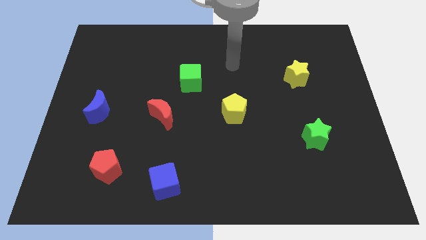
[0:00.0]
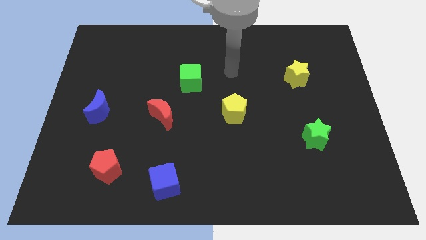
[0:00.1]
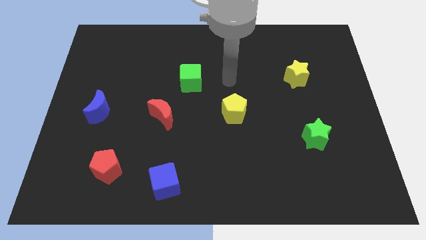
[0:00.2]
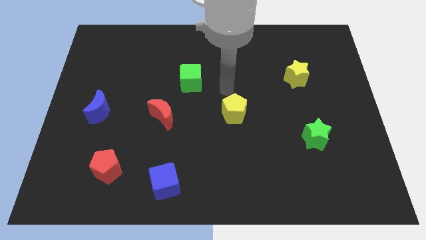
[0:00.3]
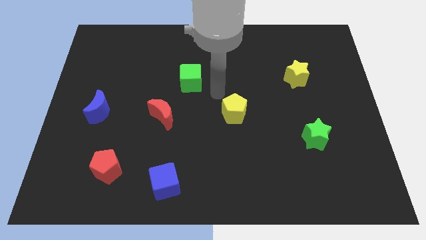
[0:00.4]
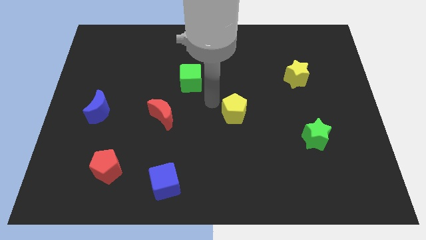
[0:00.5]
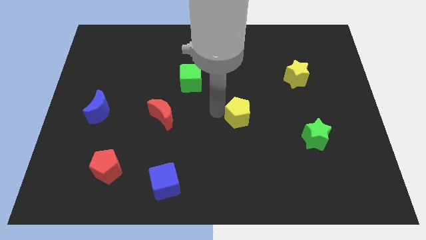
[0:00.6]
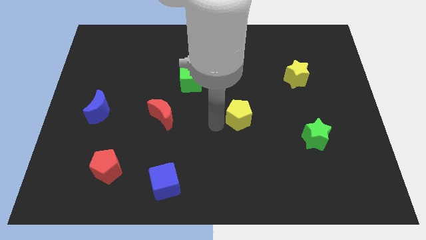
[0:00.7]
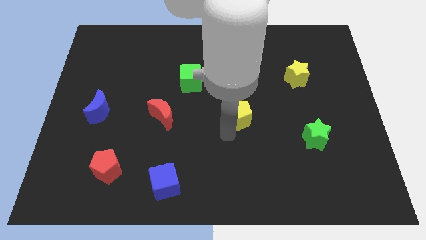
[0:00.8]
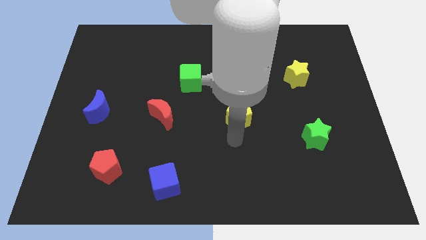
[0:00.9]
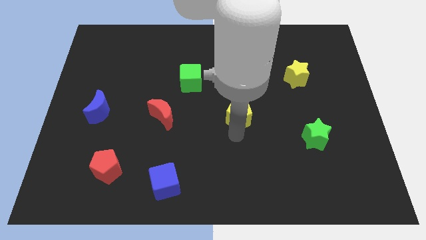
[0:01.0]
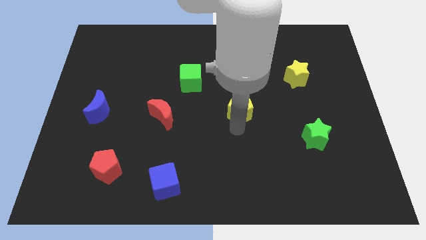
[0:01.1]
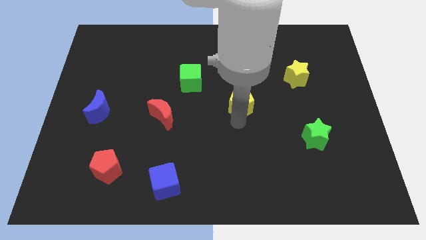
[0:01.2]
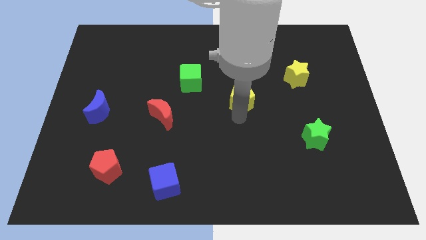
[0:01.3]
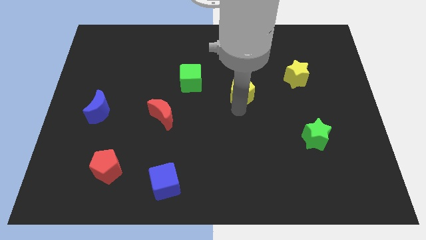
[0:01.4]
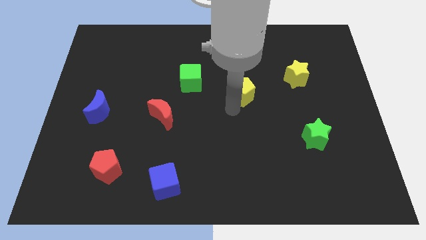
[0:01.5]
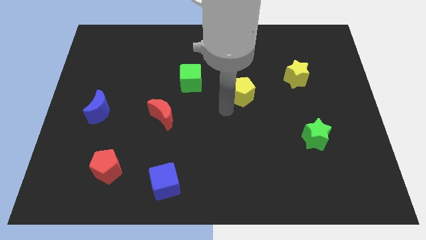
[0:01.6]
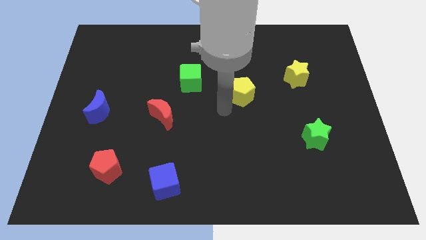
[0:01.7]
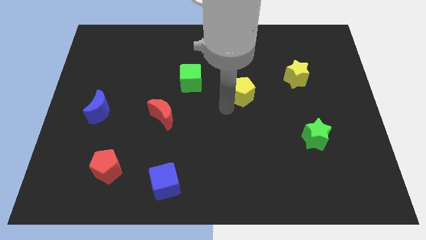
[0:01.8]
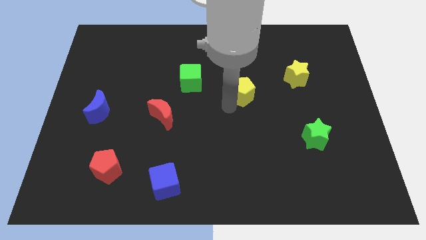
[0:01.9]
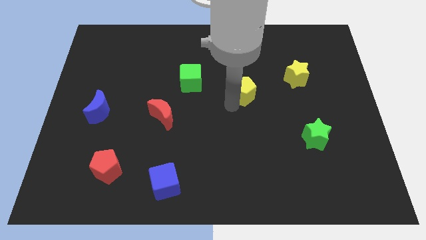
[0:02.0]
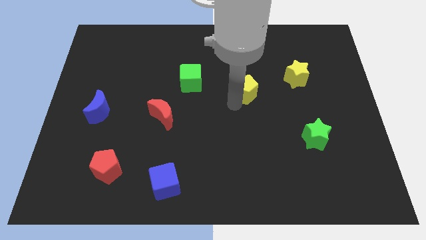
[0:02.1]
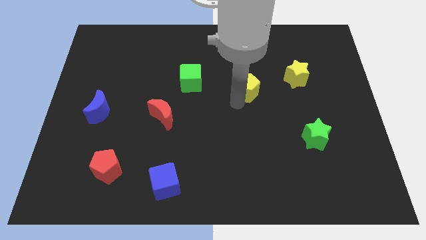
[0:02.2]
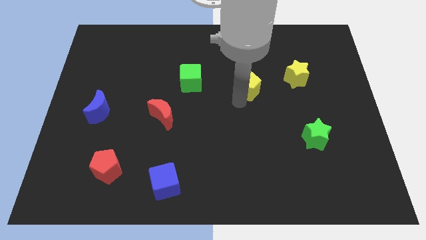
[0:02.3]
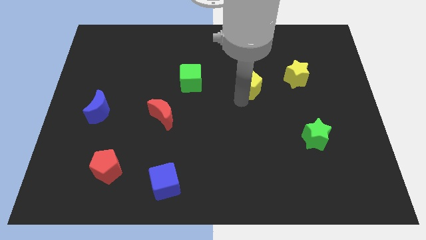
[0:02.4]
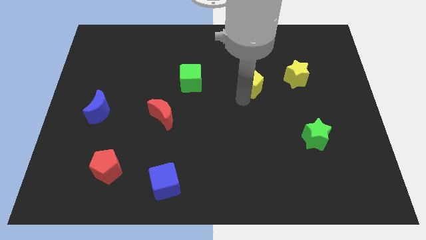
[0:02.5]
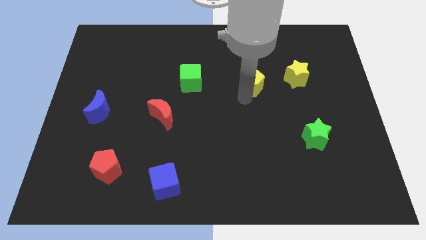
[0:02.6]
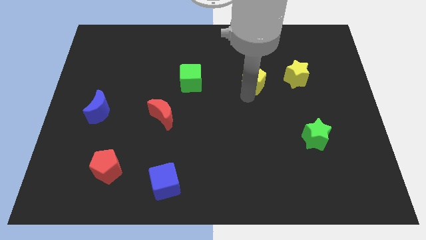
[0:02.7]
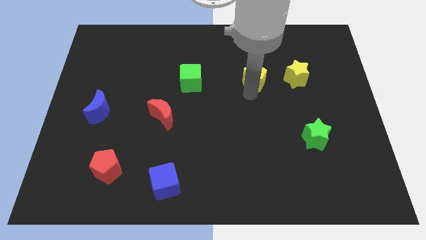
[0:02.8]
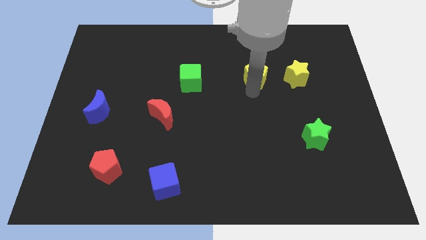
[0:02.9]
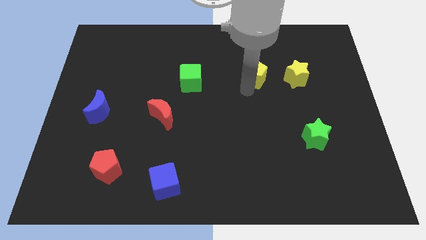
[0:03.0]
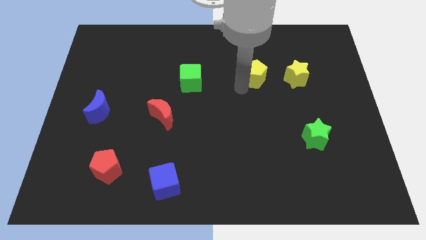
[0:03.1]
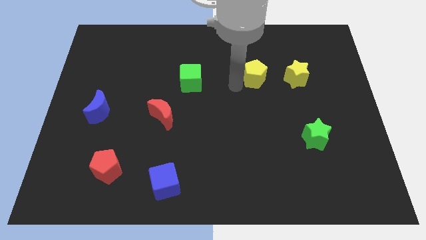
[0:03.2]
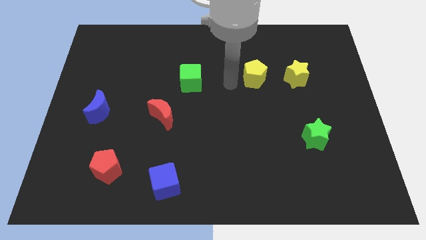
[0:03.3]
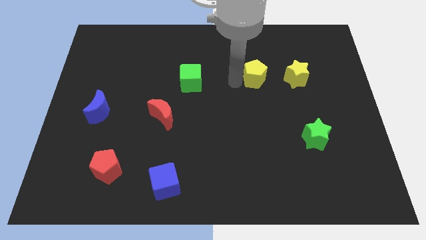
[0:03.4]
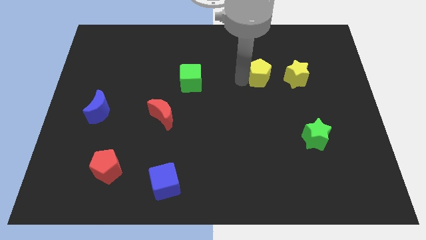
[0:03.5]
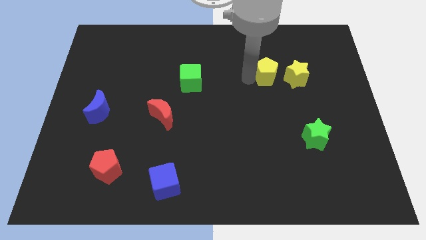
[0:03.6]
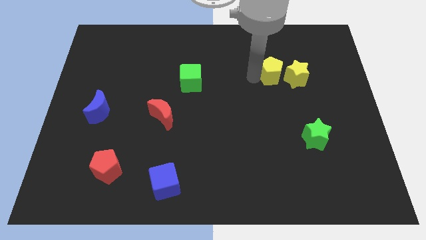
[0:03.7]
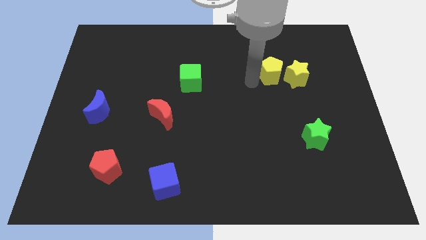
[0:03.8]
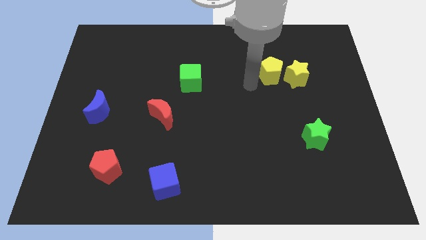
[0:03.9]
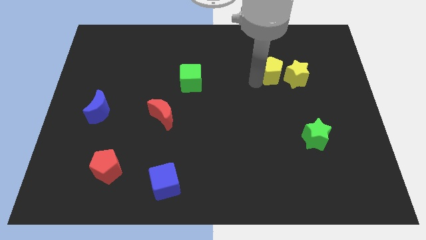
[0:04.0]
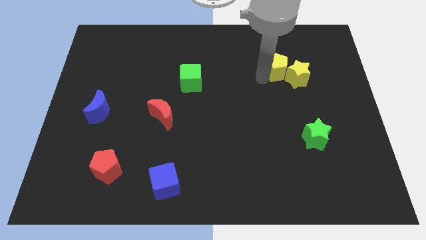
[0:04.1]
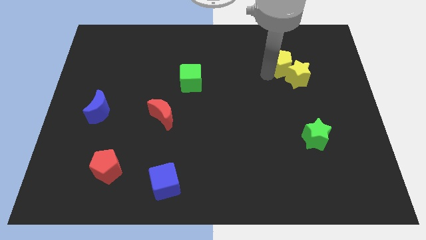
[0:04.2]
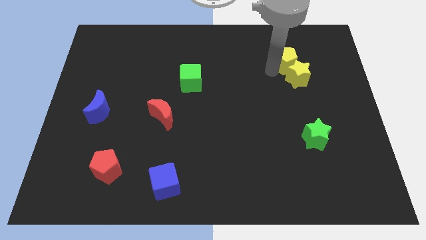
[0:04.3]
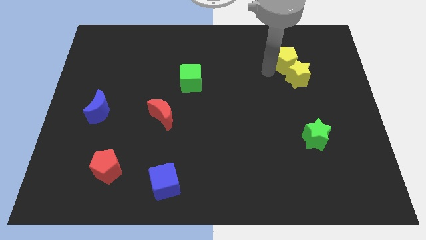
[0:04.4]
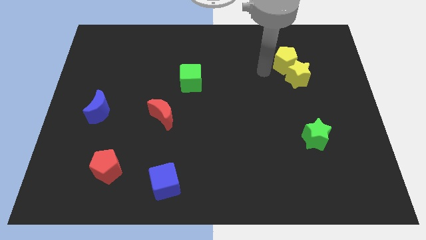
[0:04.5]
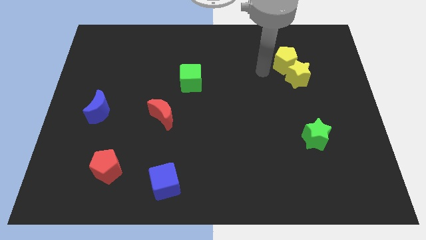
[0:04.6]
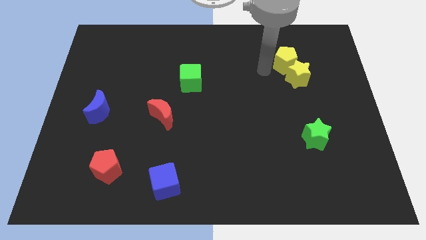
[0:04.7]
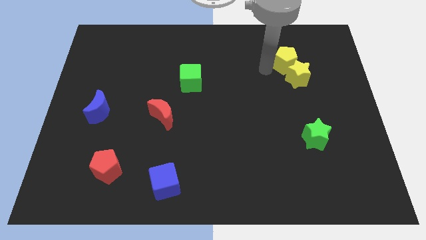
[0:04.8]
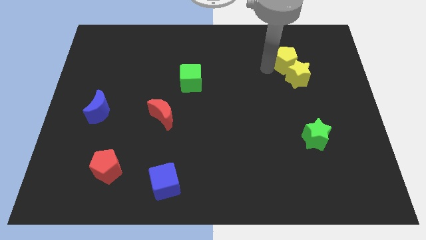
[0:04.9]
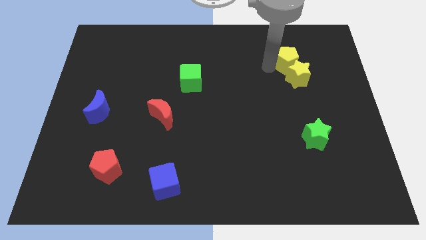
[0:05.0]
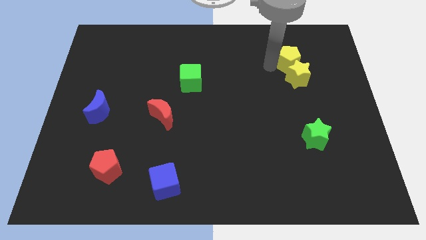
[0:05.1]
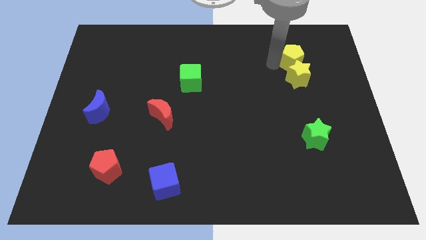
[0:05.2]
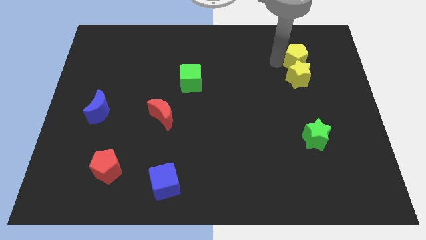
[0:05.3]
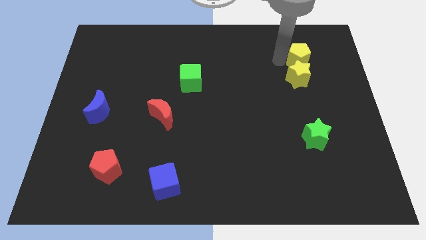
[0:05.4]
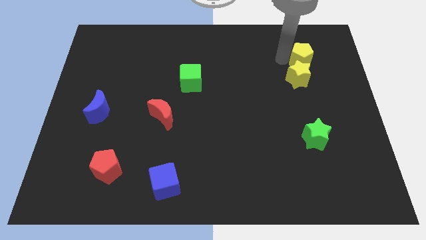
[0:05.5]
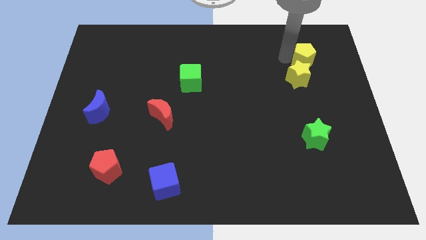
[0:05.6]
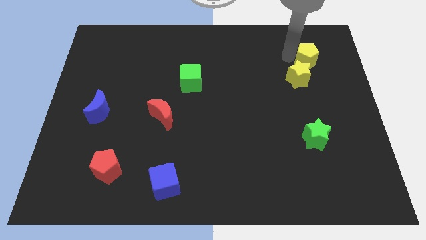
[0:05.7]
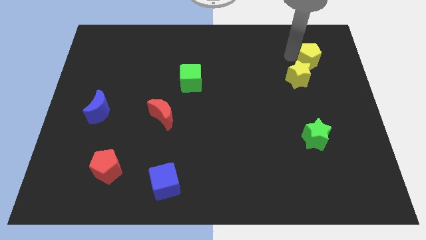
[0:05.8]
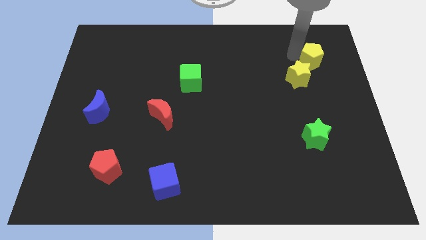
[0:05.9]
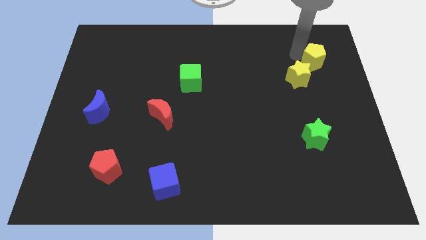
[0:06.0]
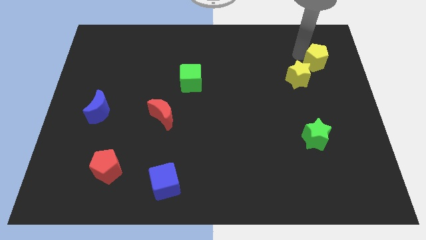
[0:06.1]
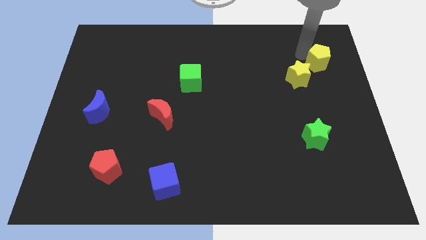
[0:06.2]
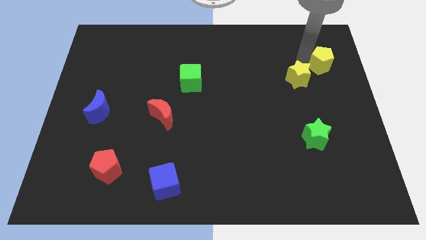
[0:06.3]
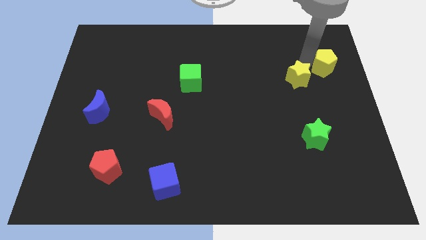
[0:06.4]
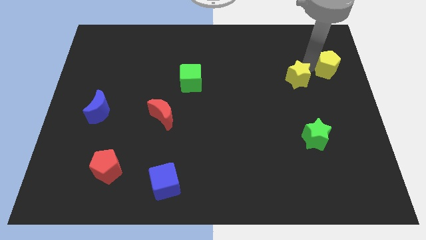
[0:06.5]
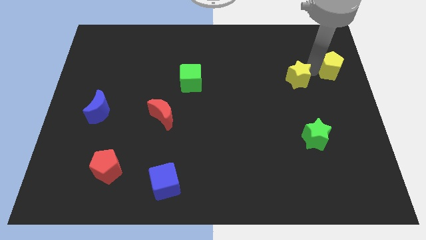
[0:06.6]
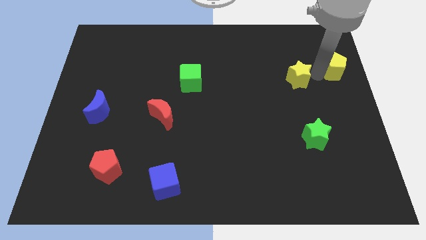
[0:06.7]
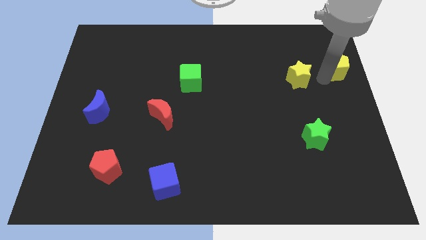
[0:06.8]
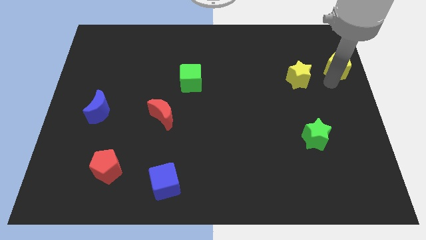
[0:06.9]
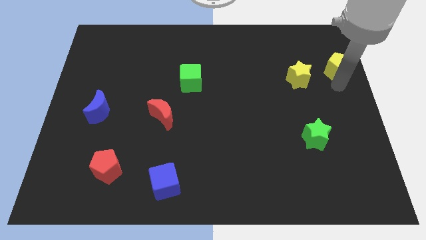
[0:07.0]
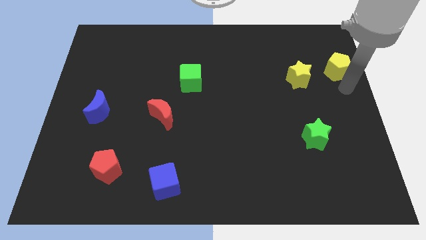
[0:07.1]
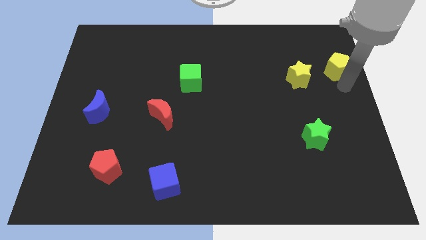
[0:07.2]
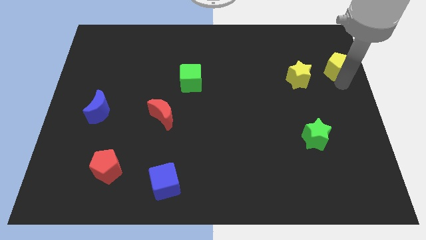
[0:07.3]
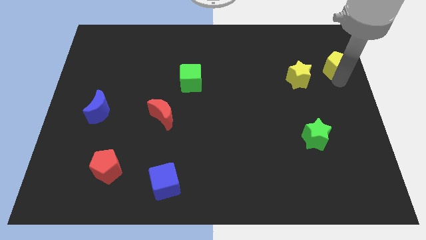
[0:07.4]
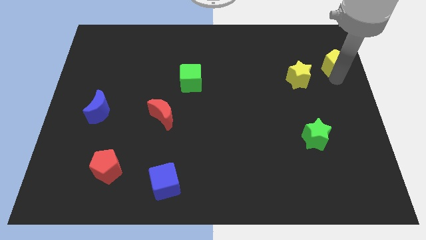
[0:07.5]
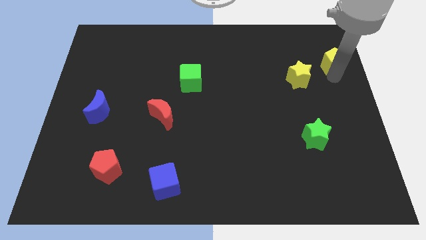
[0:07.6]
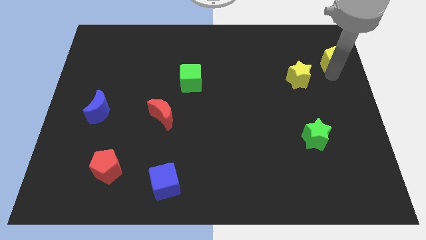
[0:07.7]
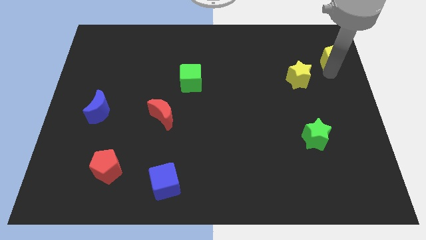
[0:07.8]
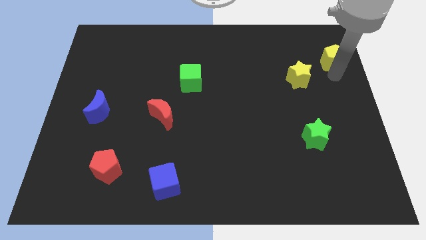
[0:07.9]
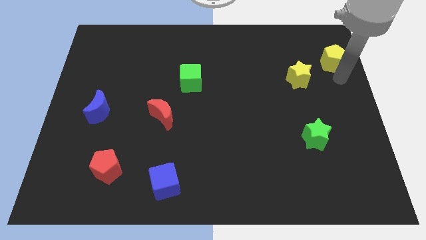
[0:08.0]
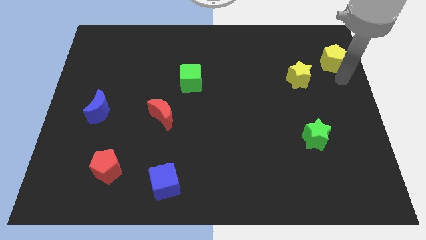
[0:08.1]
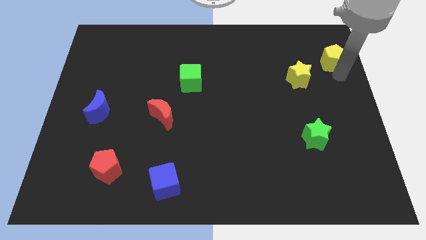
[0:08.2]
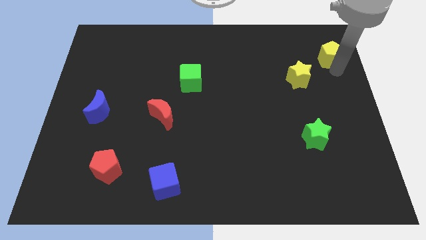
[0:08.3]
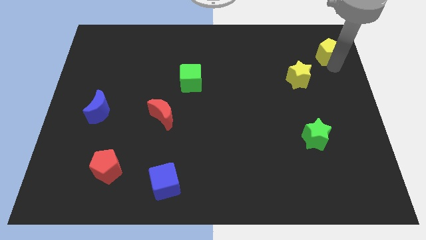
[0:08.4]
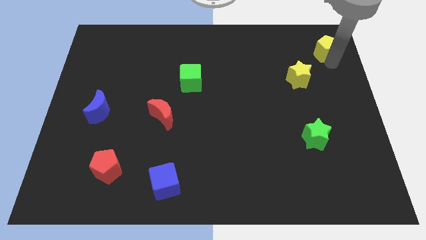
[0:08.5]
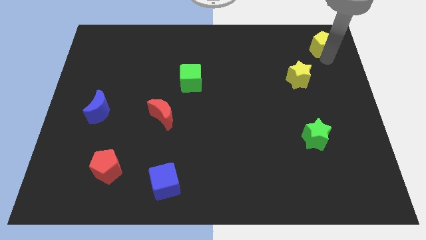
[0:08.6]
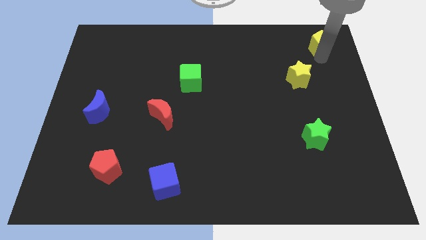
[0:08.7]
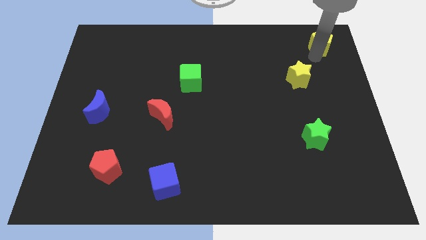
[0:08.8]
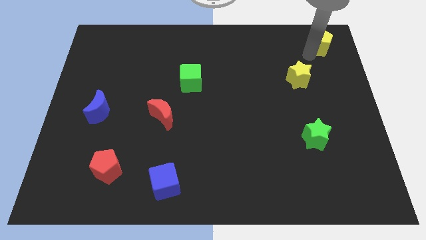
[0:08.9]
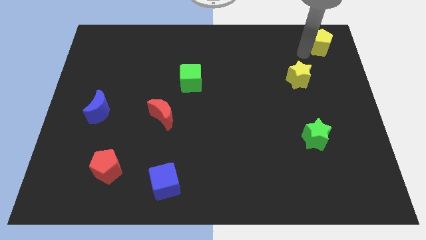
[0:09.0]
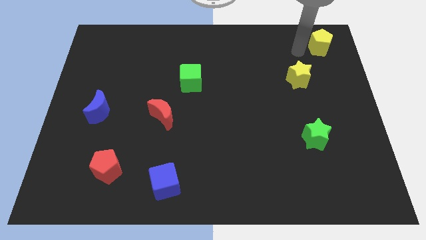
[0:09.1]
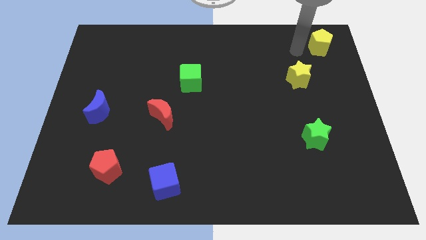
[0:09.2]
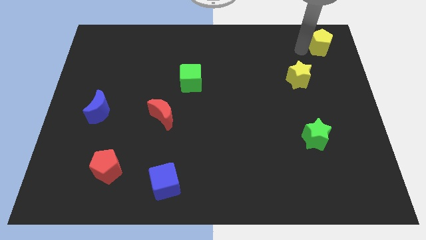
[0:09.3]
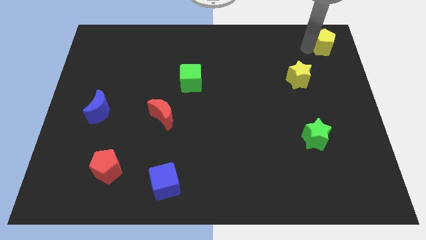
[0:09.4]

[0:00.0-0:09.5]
slide the yellow pentagon to the top right
